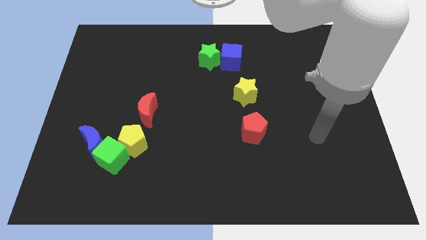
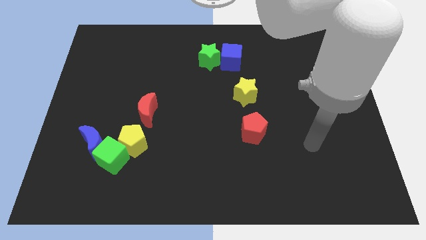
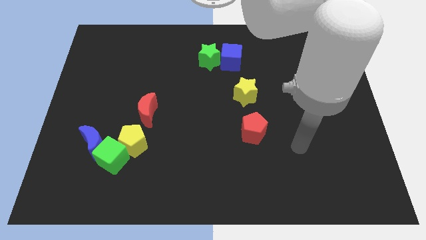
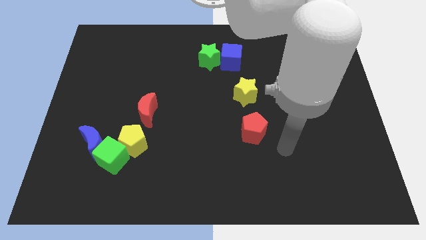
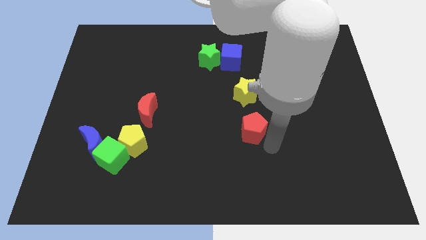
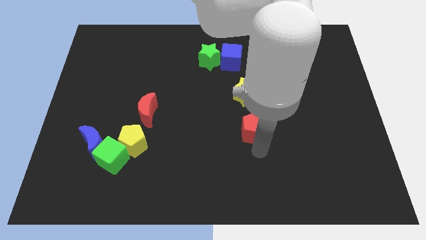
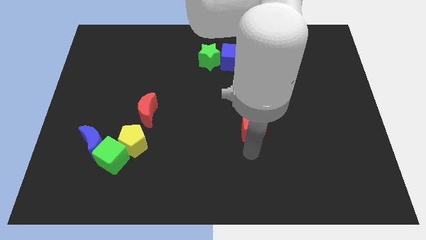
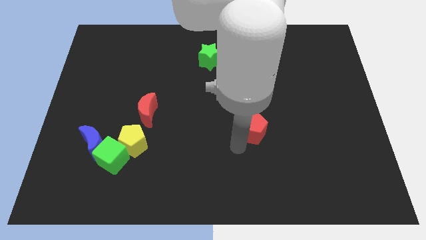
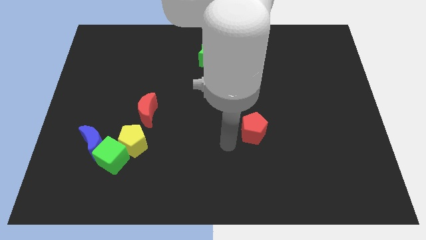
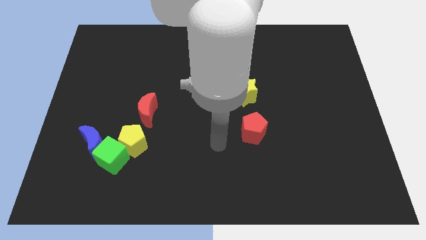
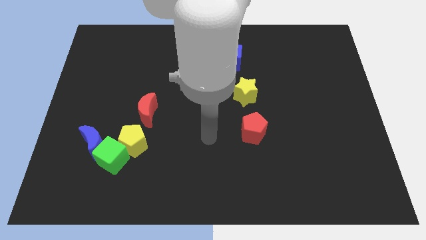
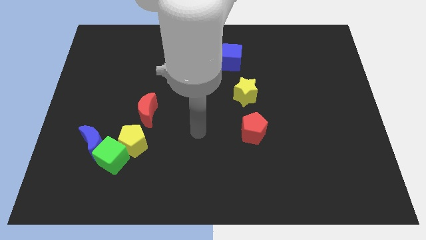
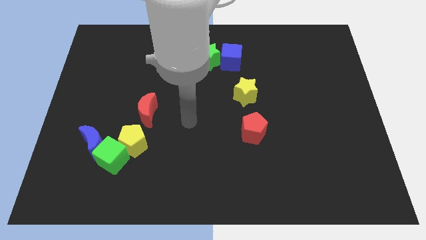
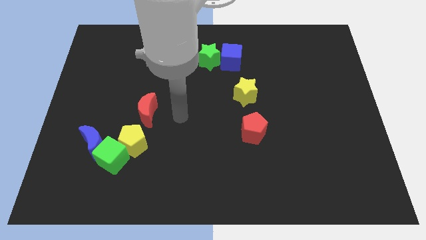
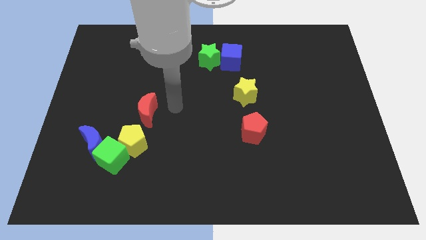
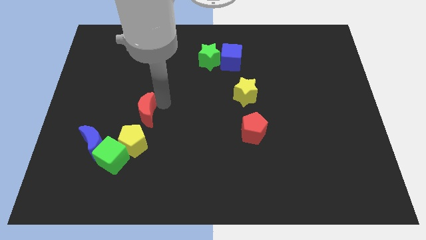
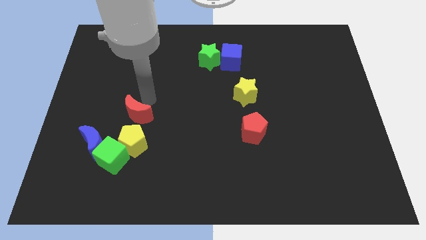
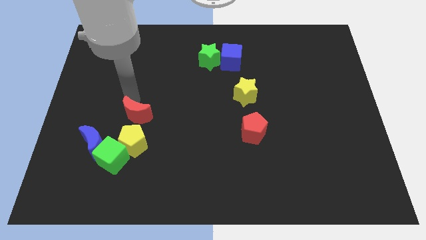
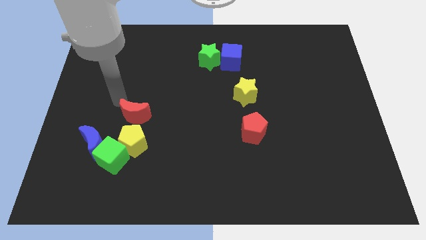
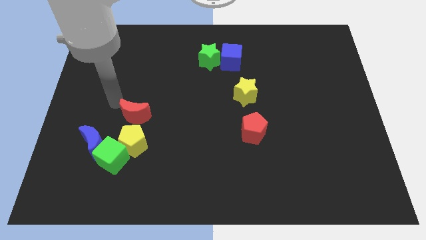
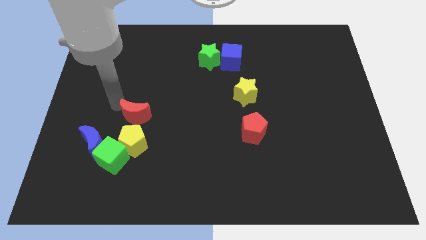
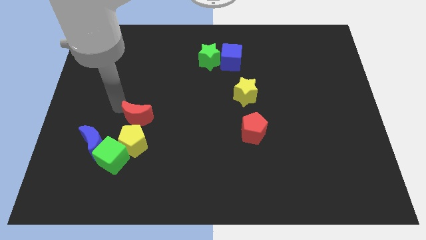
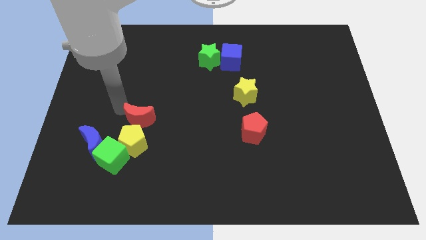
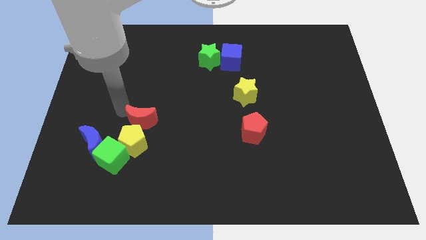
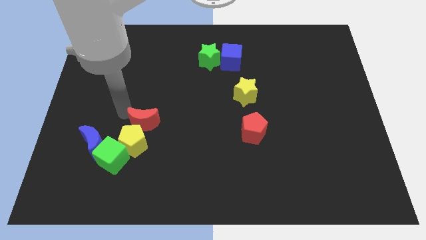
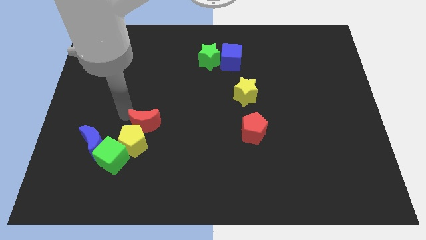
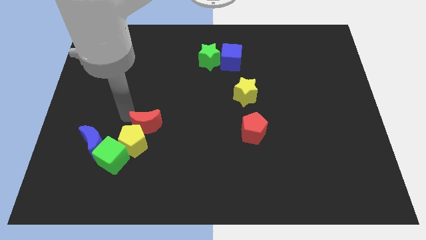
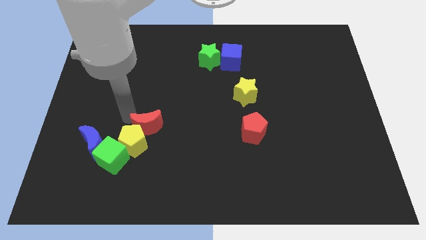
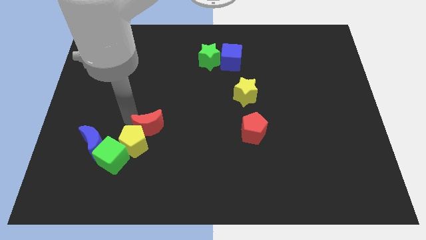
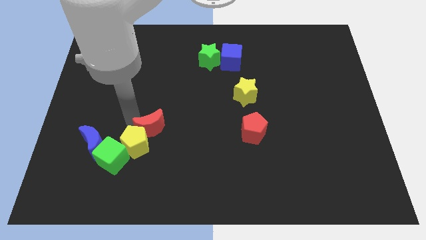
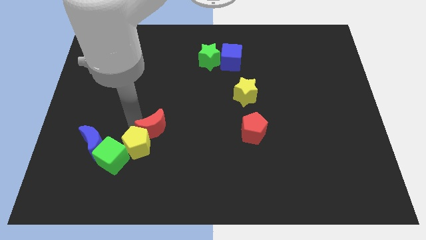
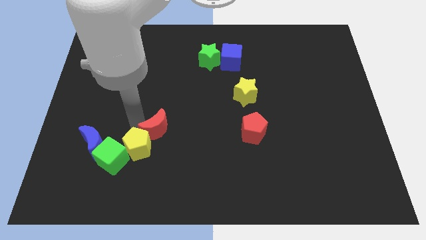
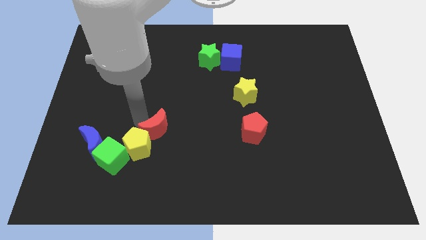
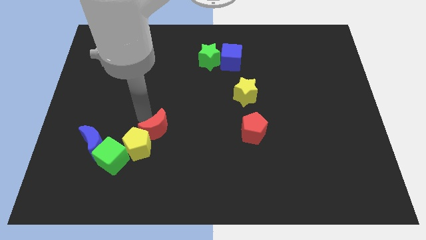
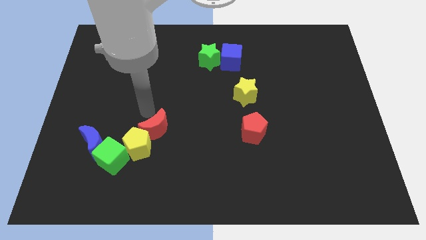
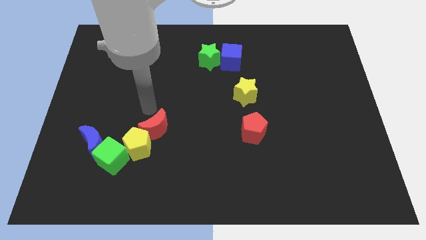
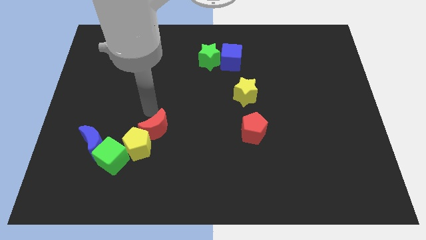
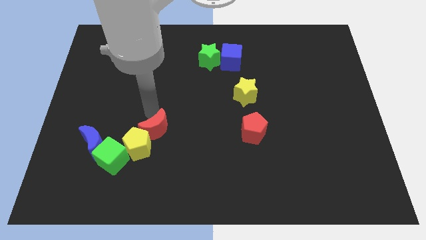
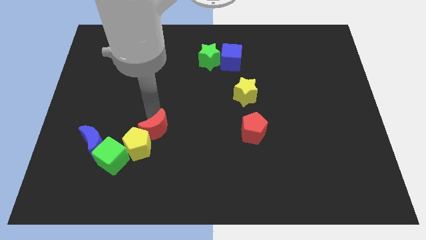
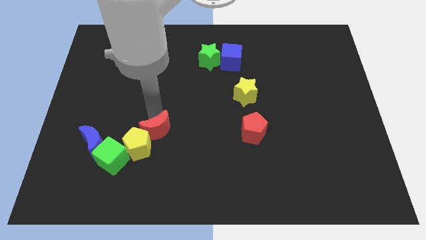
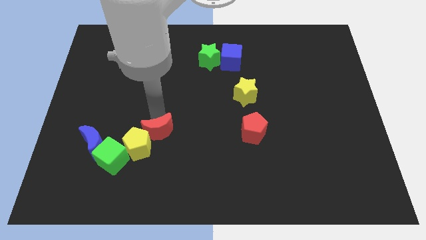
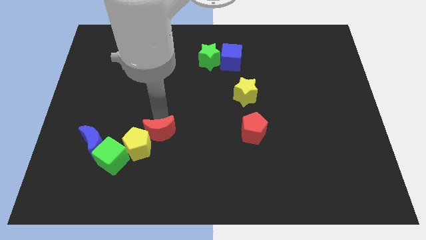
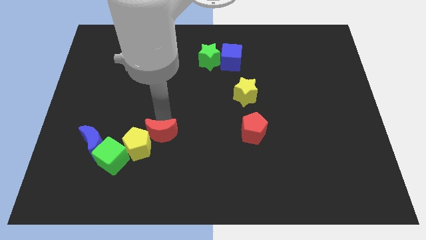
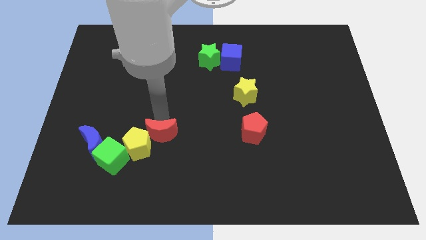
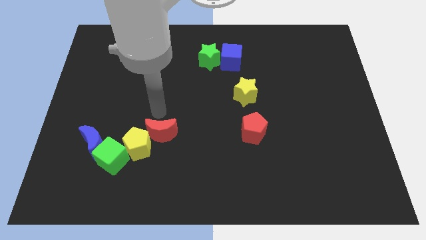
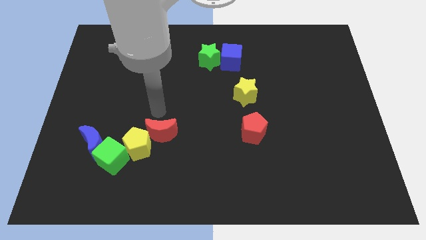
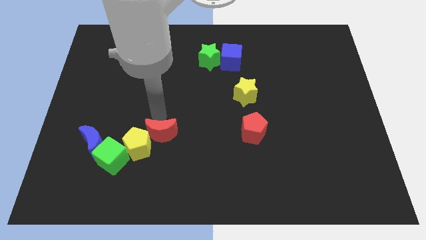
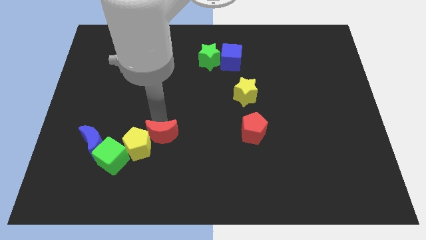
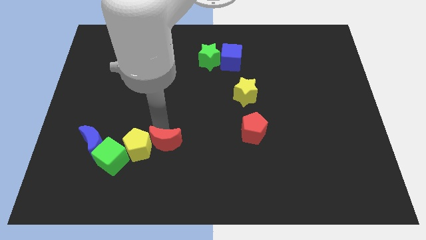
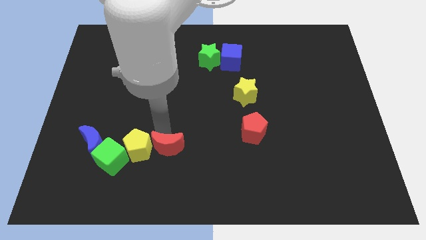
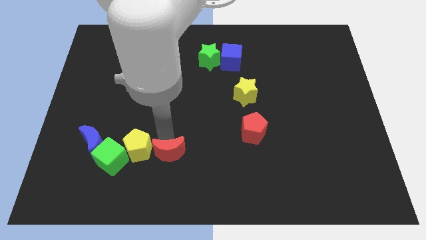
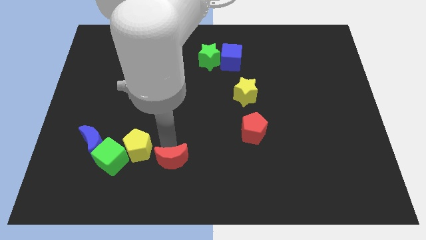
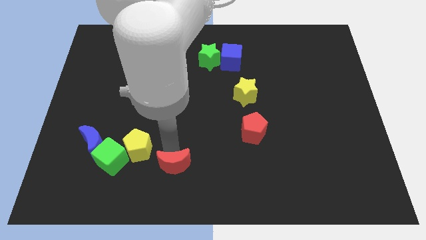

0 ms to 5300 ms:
put the red moon to the bottom
